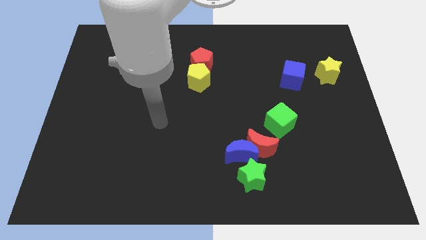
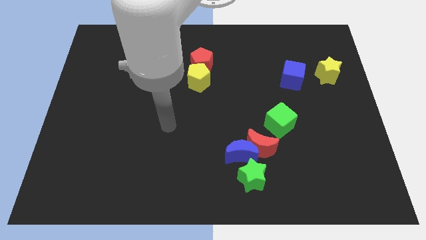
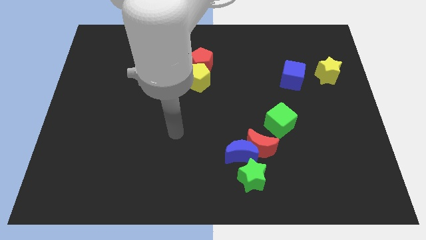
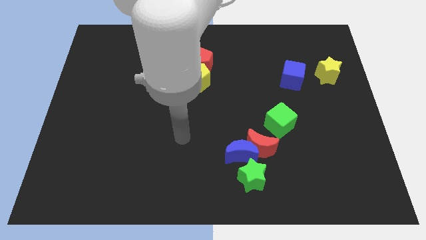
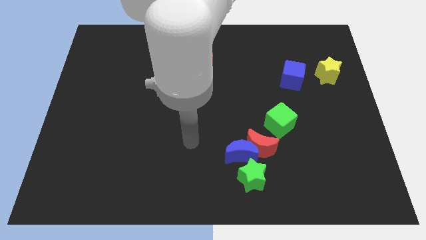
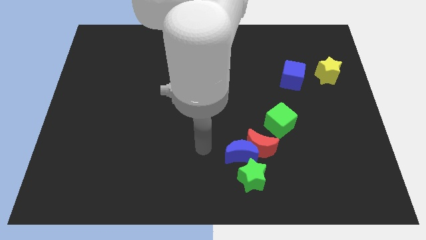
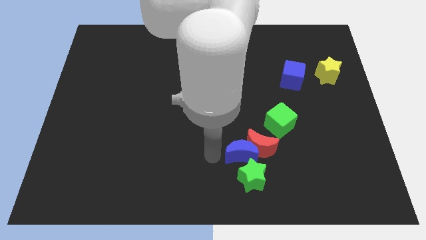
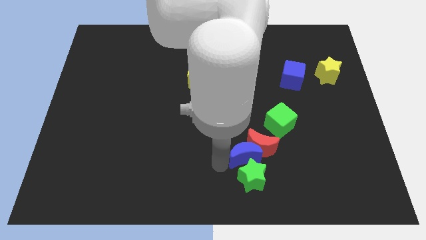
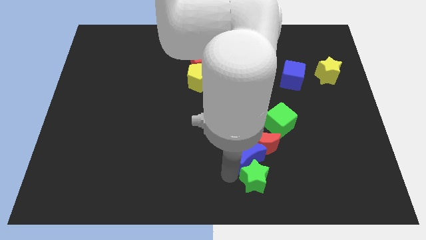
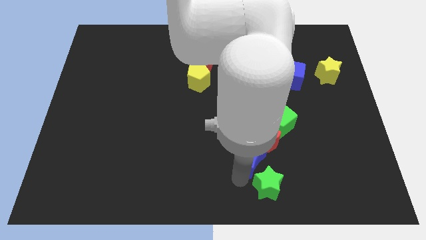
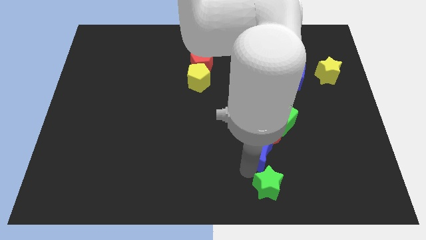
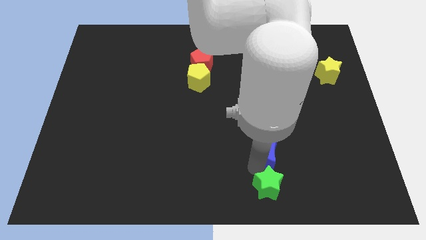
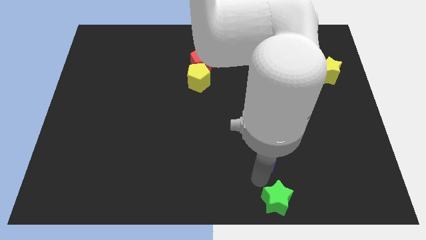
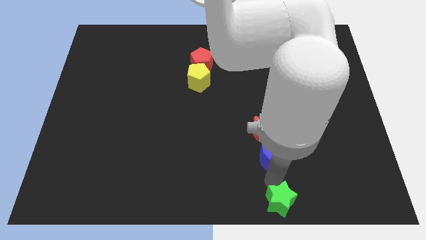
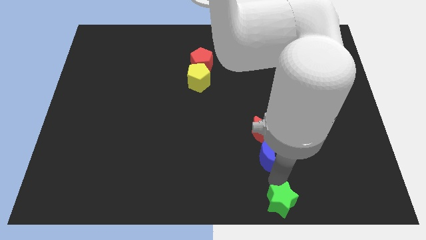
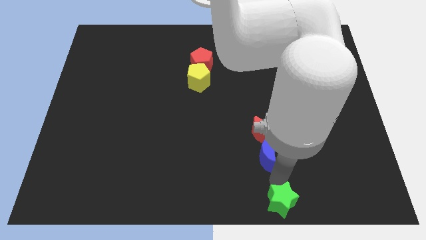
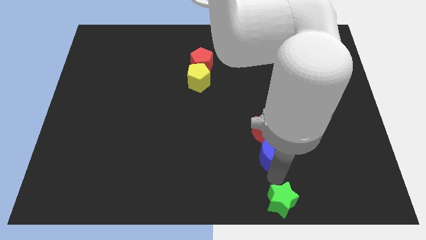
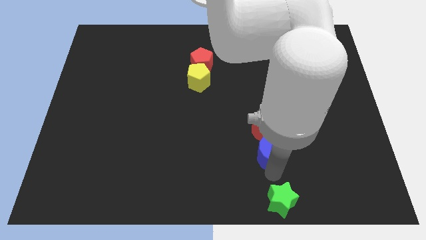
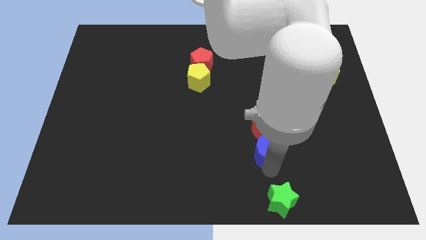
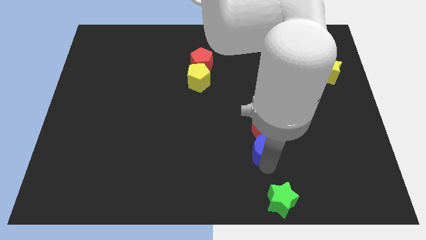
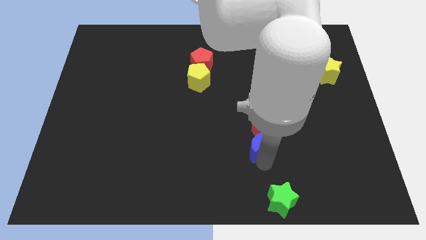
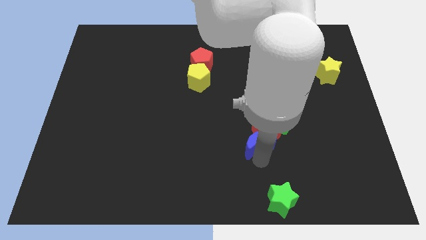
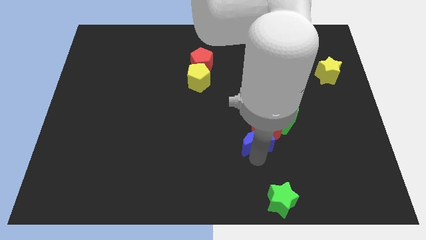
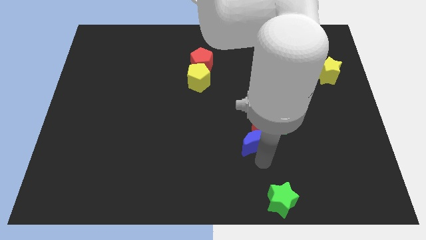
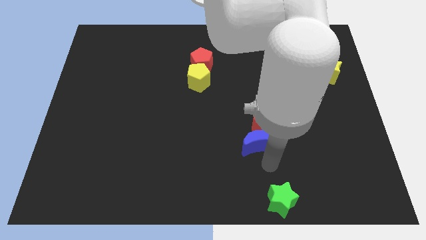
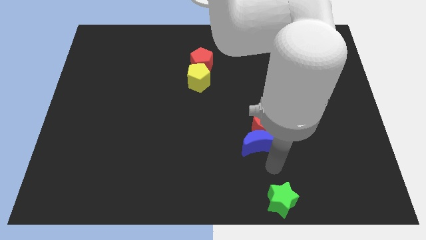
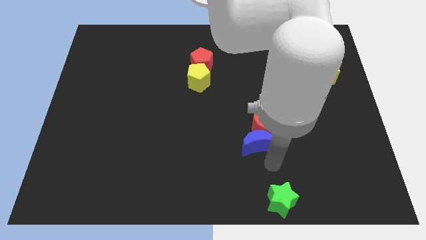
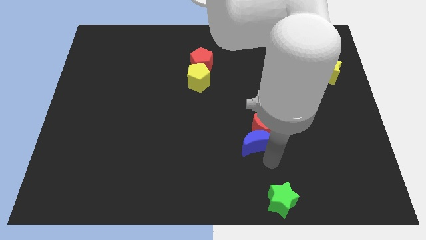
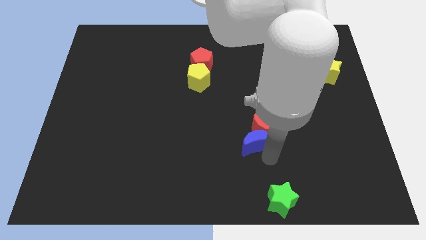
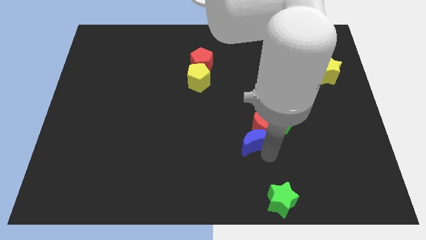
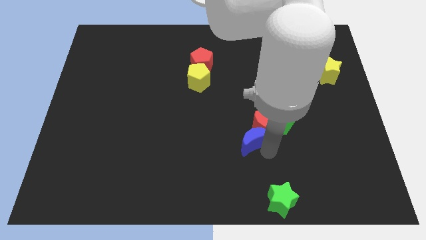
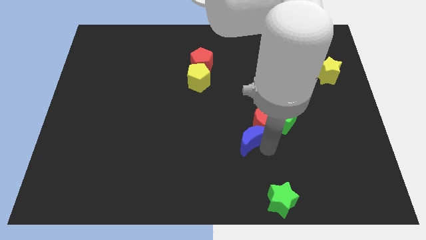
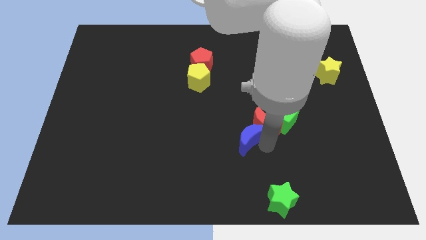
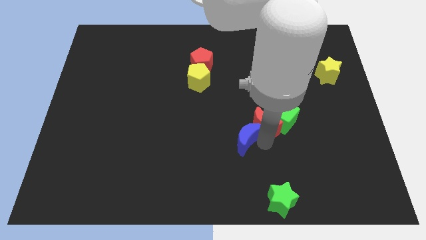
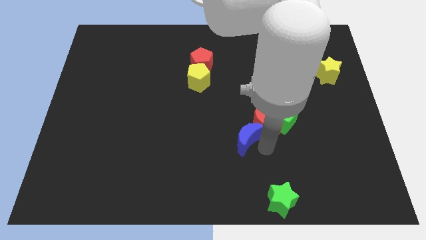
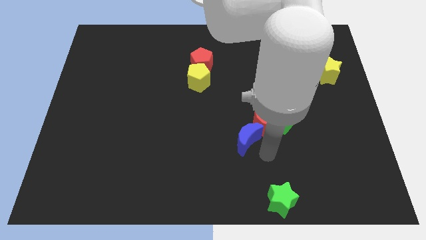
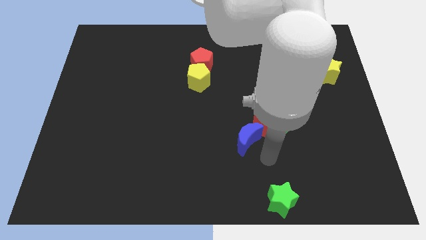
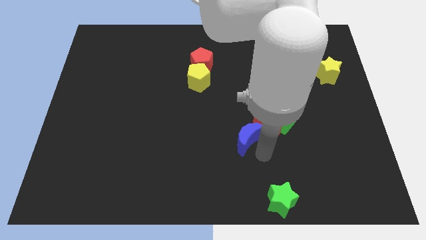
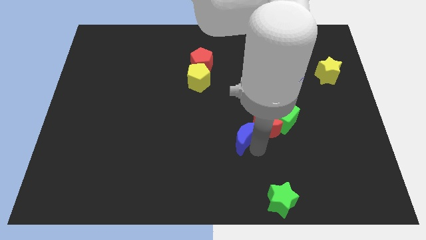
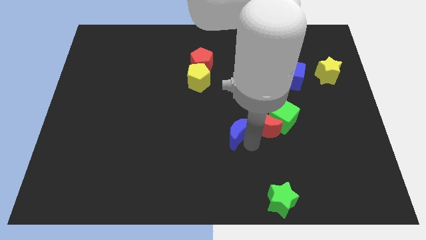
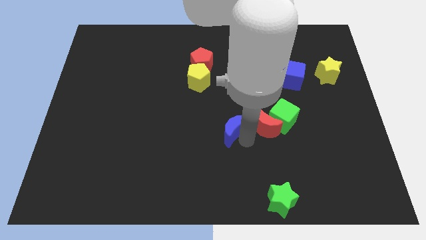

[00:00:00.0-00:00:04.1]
move the blue moon away from the red moon and green star

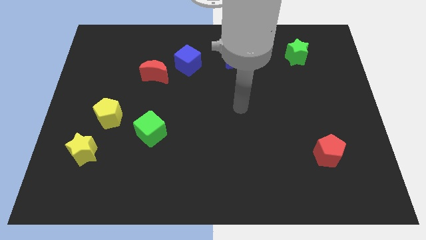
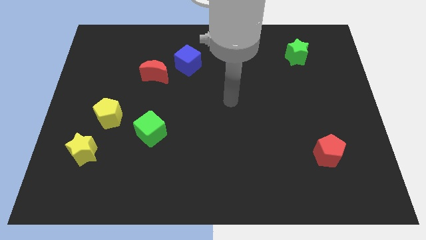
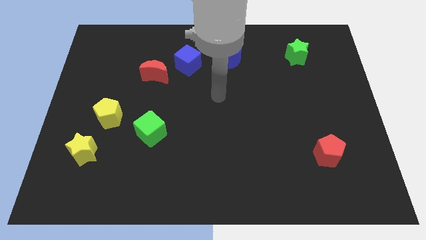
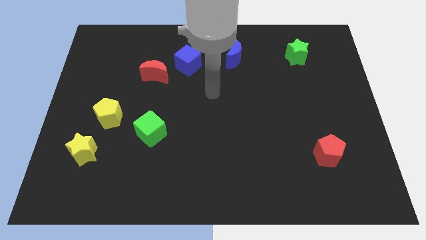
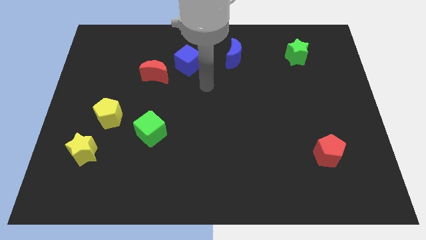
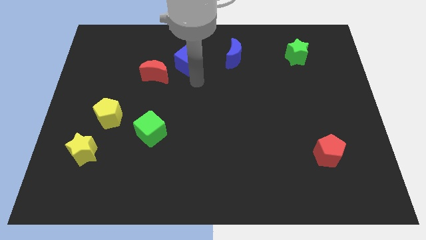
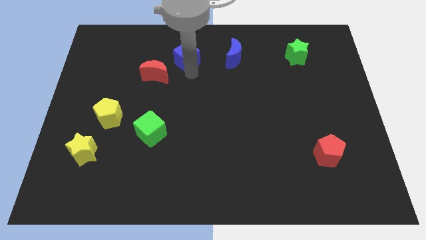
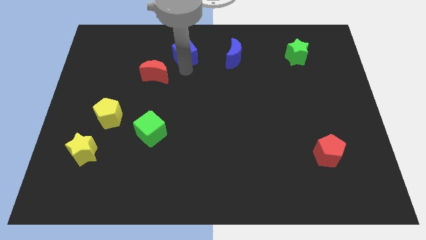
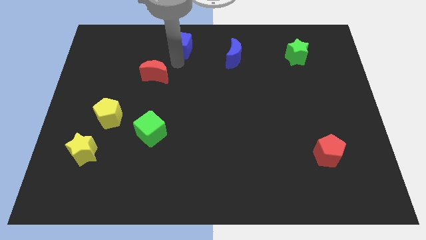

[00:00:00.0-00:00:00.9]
separate the red moon from the blue cube

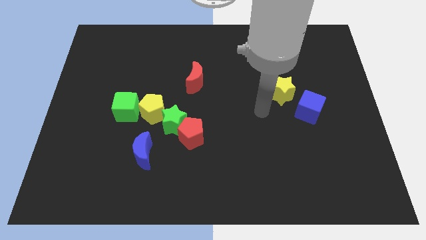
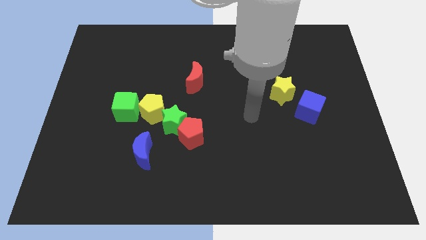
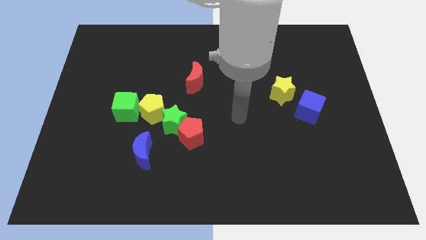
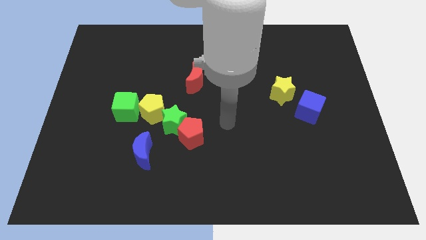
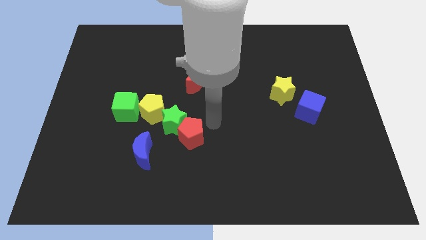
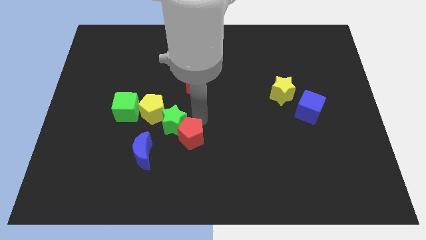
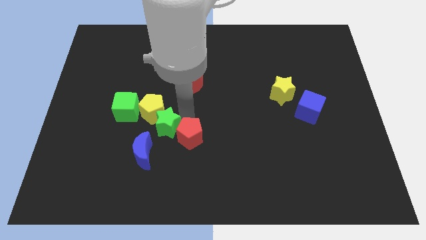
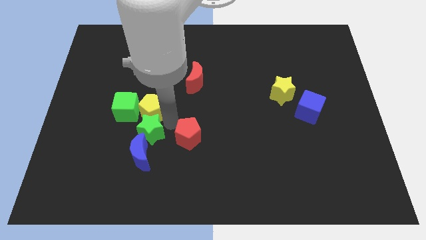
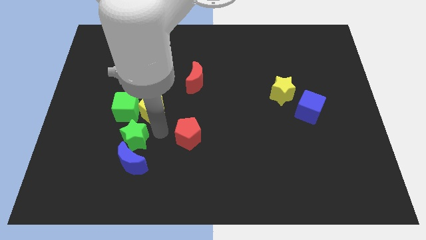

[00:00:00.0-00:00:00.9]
pull the red pentagon apart from the green star

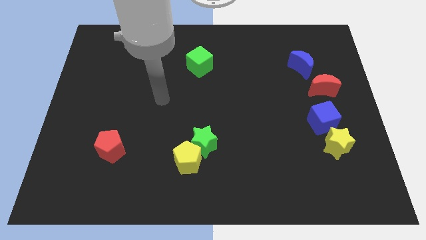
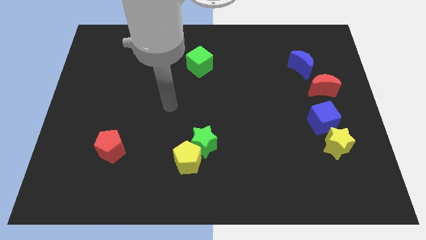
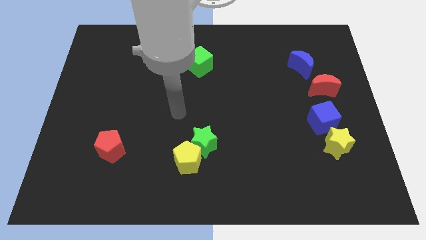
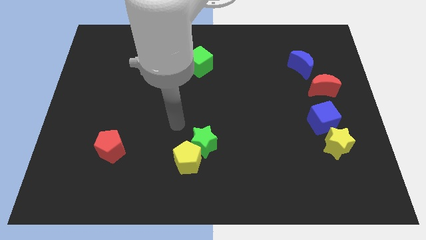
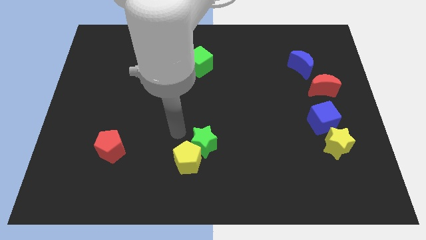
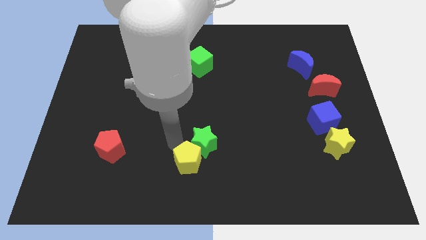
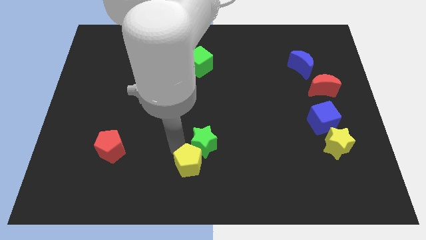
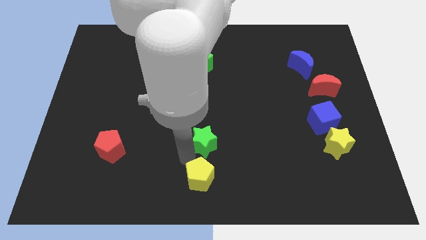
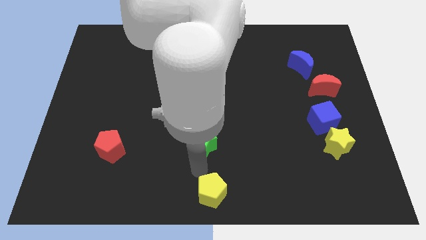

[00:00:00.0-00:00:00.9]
pull the green star apart from the yellow pentagon

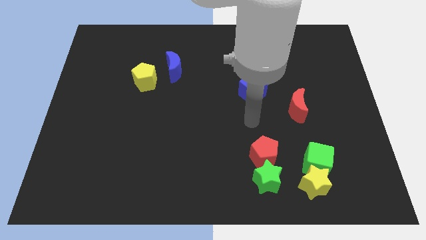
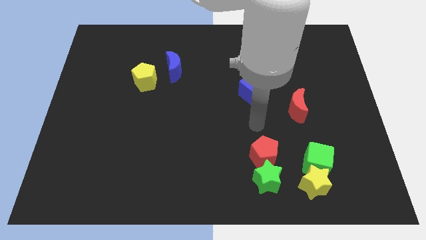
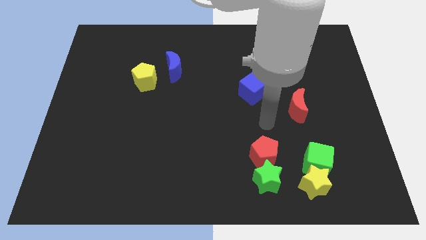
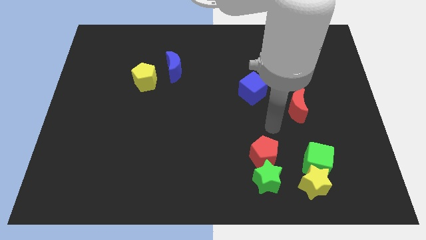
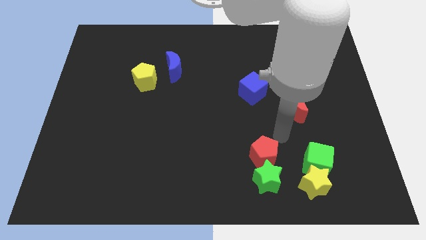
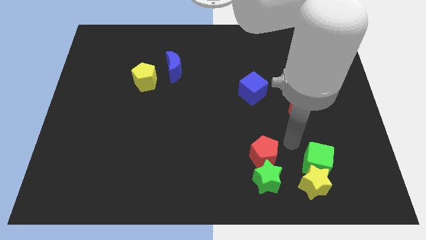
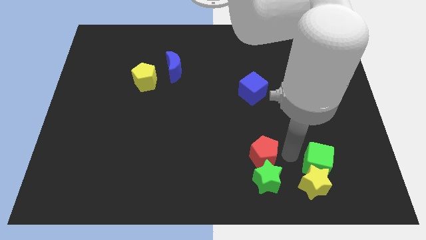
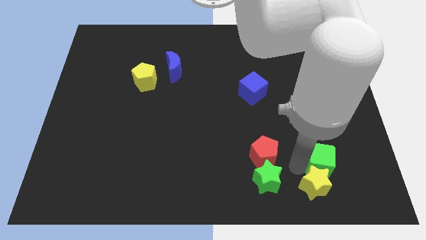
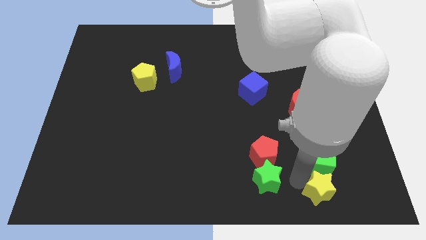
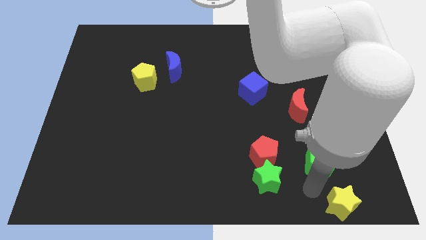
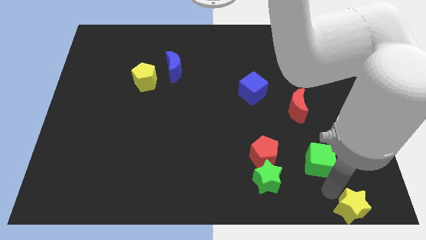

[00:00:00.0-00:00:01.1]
pull the green cube apart from the yellow star

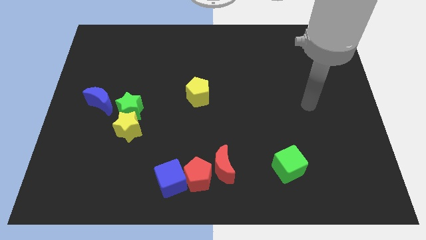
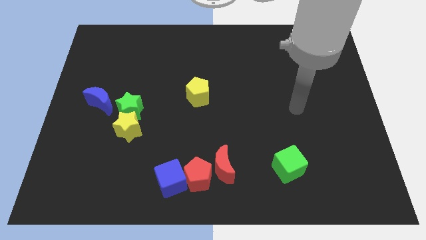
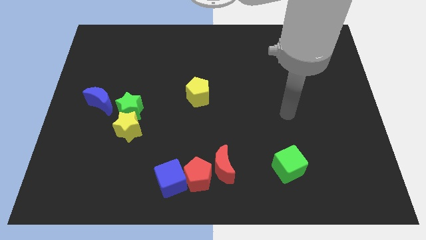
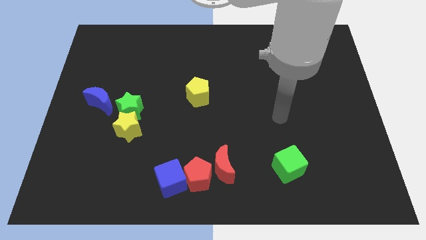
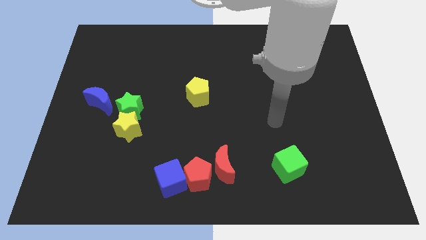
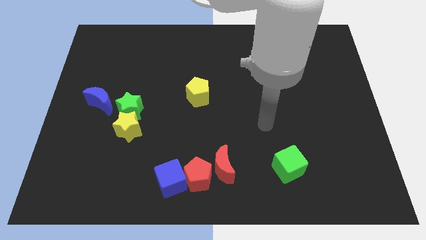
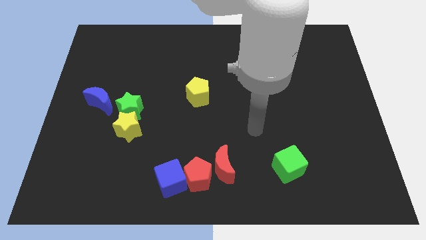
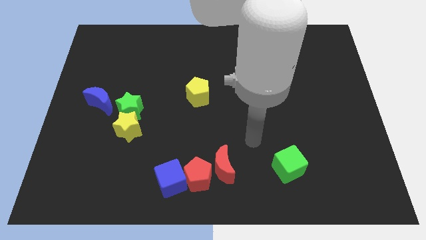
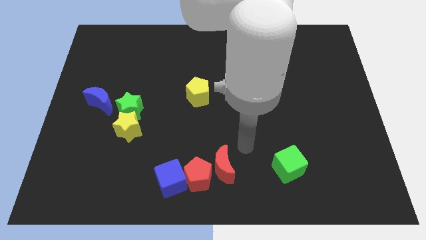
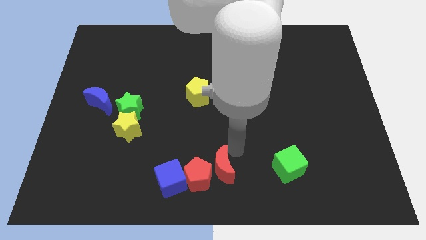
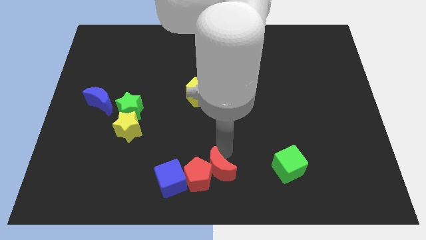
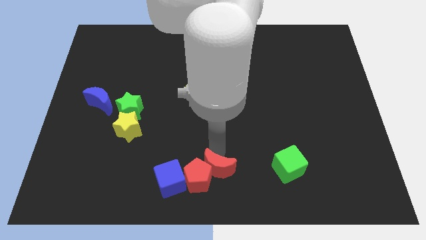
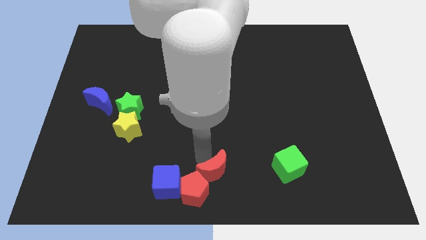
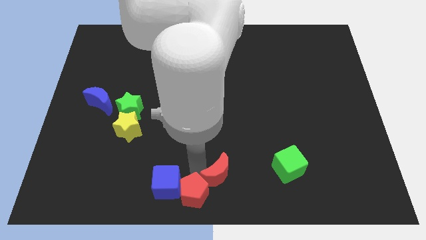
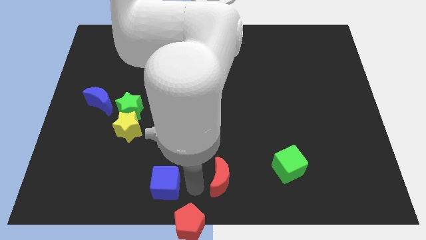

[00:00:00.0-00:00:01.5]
move the red moon away from the red pentagon
